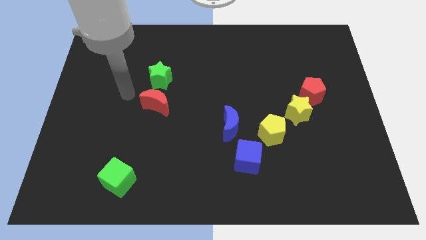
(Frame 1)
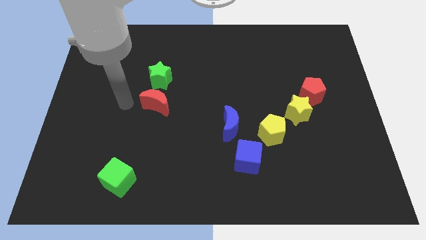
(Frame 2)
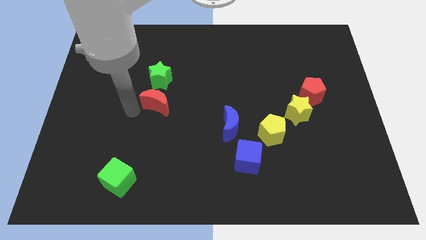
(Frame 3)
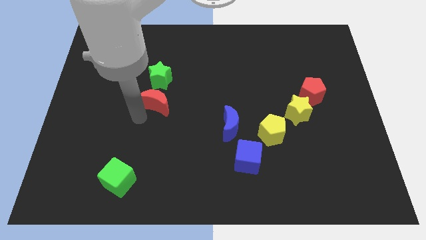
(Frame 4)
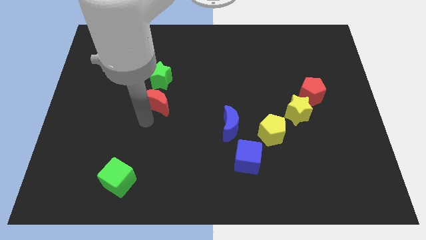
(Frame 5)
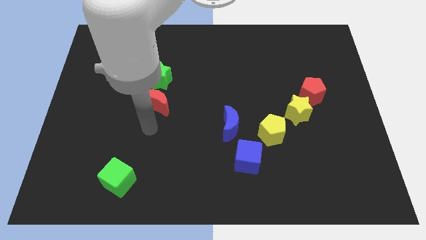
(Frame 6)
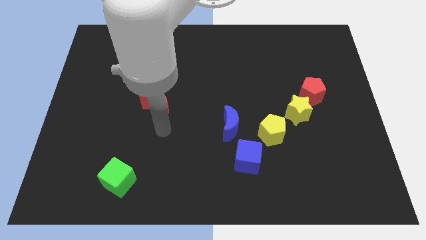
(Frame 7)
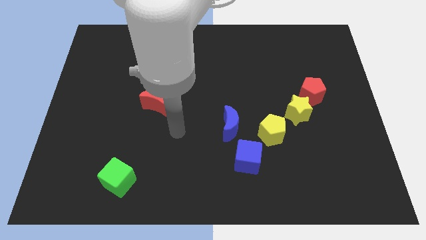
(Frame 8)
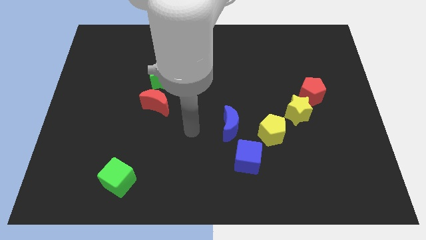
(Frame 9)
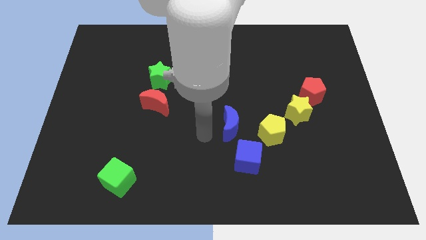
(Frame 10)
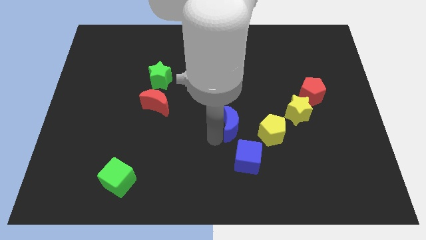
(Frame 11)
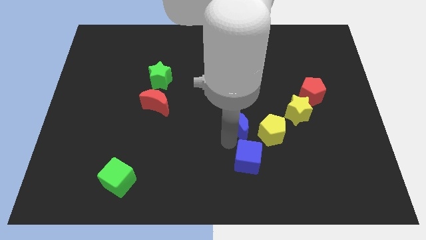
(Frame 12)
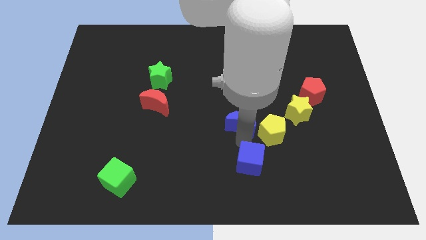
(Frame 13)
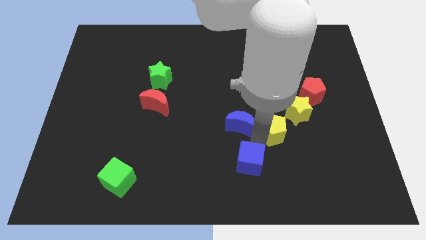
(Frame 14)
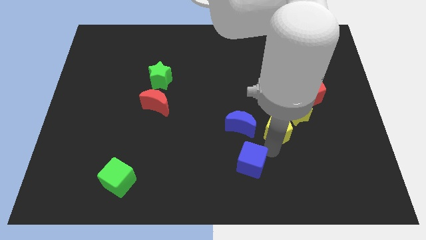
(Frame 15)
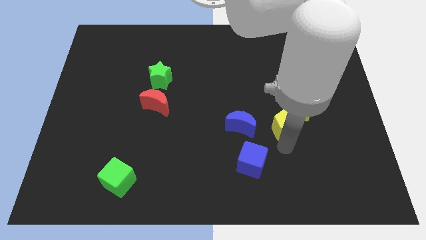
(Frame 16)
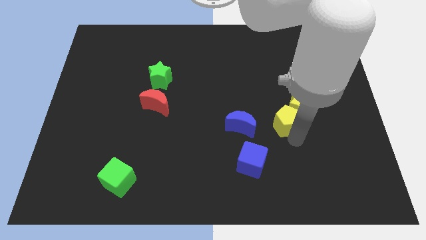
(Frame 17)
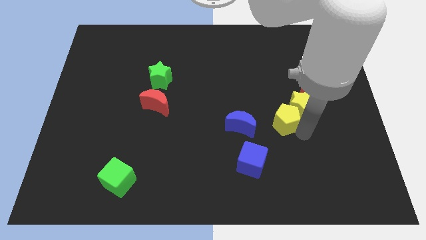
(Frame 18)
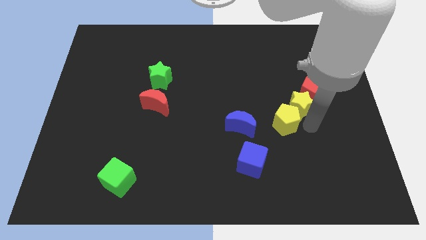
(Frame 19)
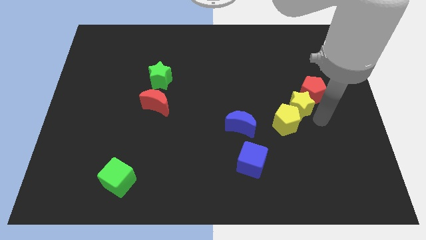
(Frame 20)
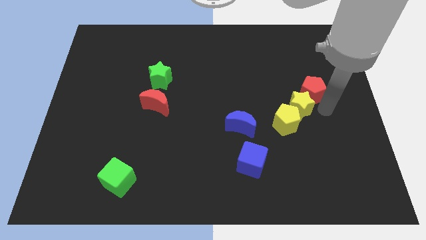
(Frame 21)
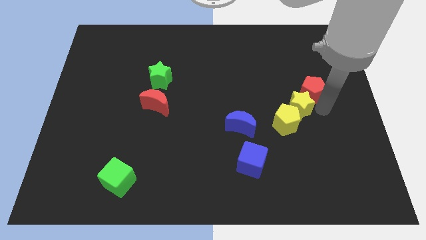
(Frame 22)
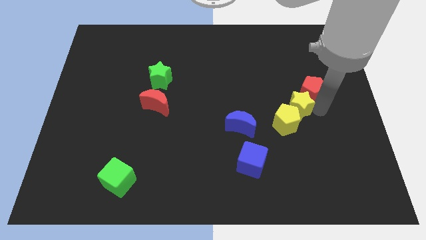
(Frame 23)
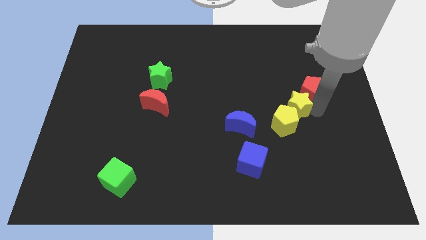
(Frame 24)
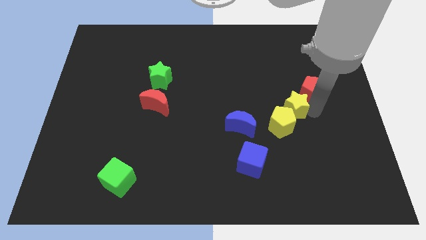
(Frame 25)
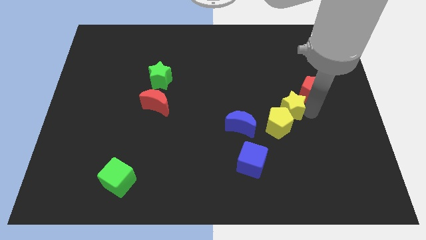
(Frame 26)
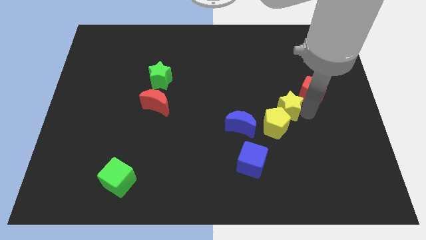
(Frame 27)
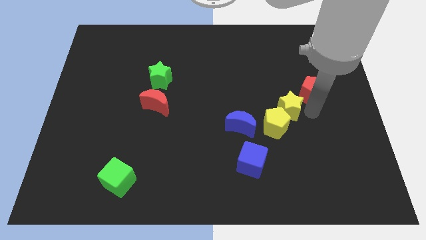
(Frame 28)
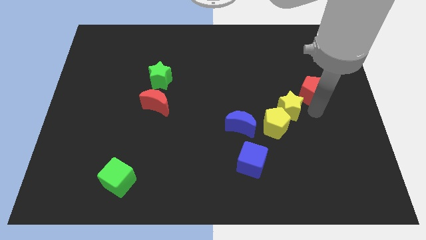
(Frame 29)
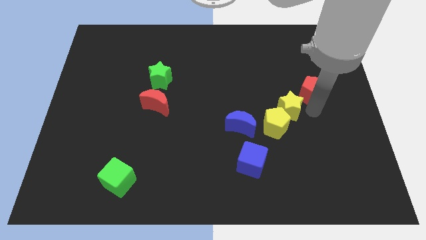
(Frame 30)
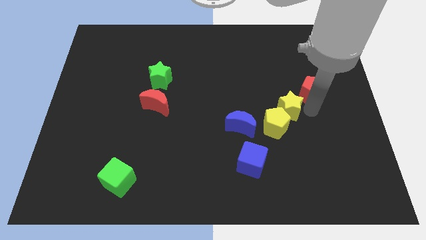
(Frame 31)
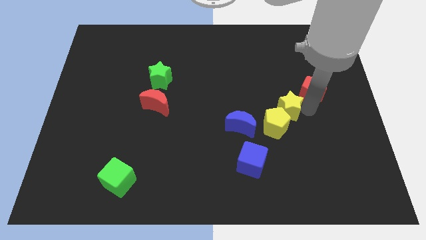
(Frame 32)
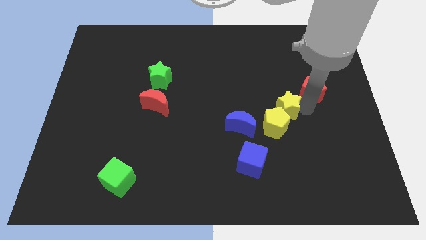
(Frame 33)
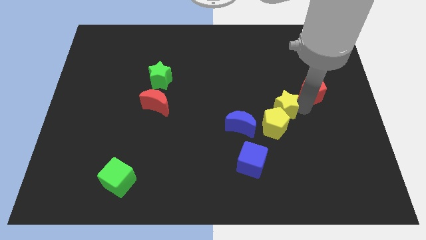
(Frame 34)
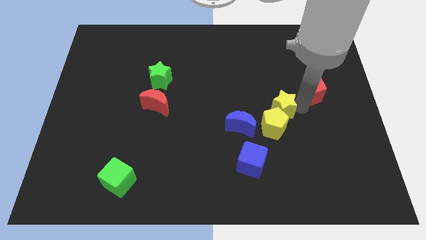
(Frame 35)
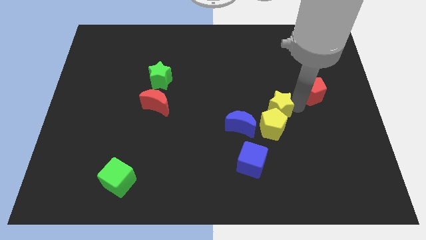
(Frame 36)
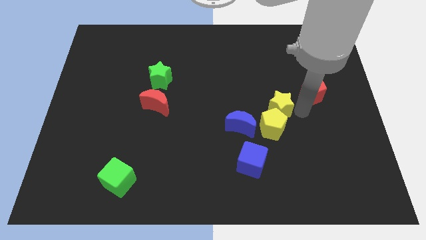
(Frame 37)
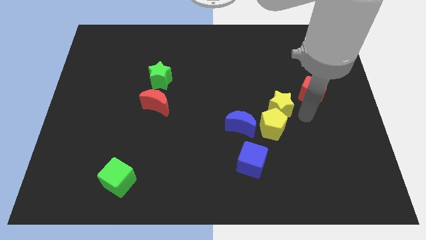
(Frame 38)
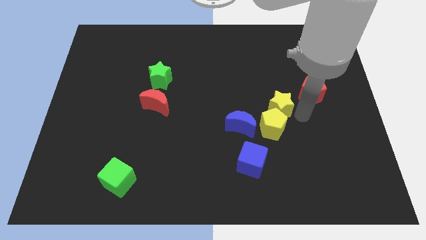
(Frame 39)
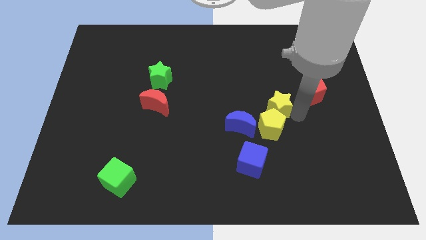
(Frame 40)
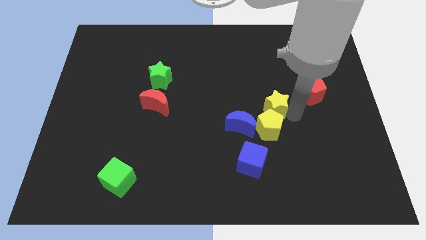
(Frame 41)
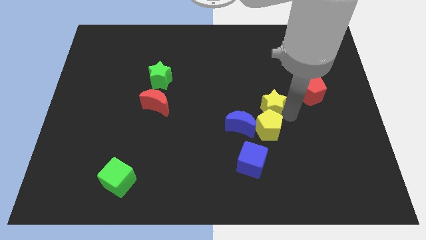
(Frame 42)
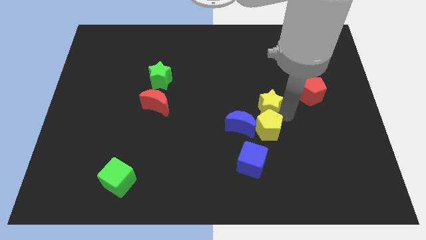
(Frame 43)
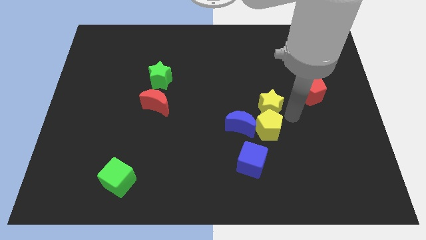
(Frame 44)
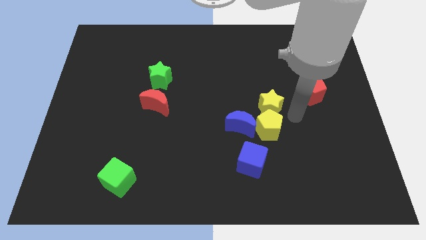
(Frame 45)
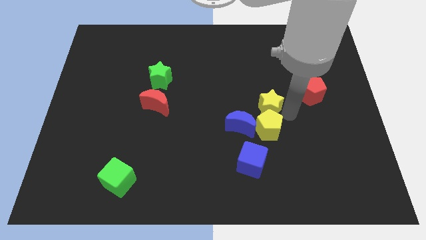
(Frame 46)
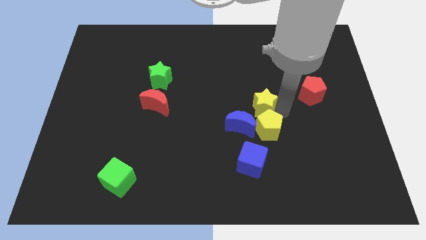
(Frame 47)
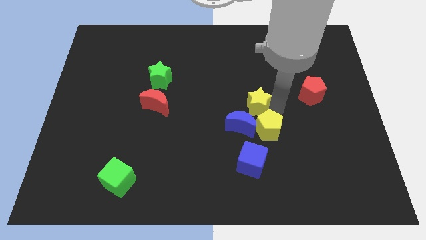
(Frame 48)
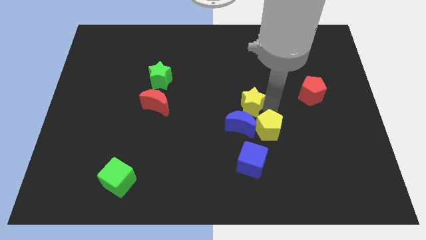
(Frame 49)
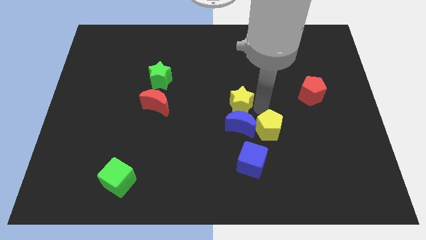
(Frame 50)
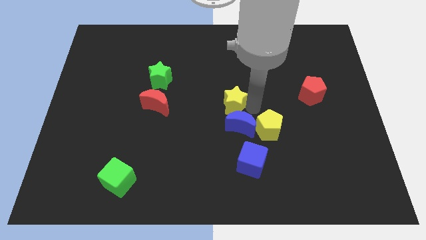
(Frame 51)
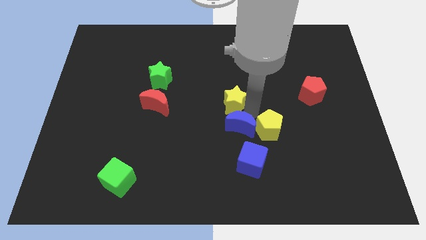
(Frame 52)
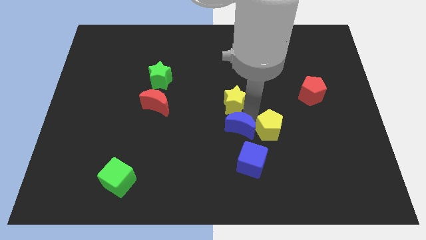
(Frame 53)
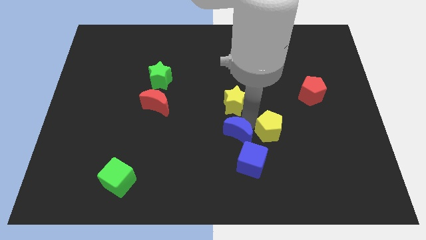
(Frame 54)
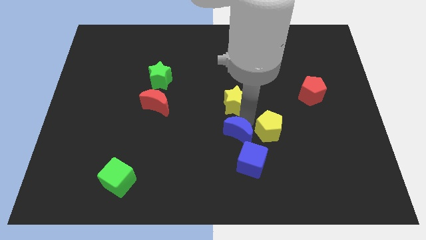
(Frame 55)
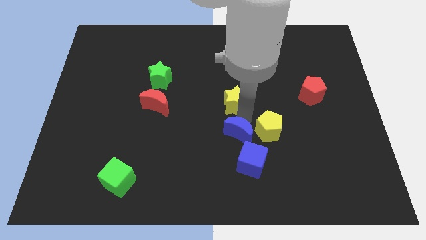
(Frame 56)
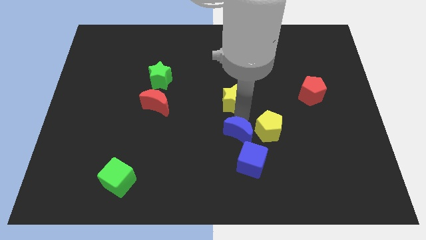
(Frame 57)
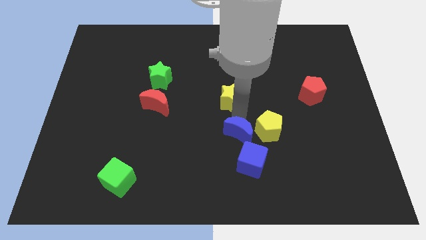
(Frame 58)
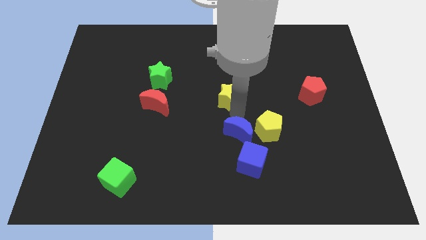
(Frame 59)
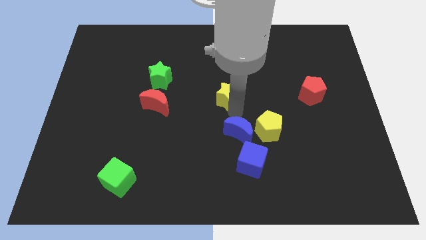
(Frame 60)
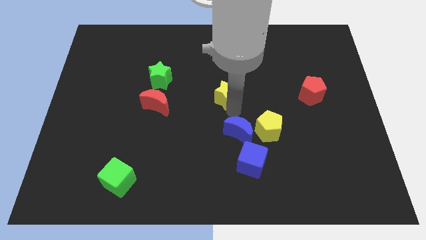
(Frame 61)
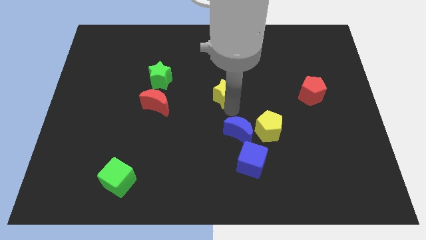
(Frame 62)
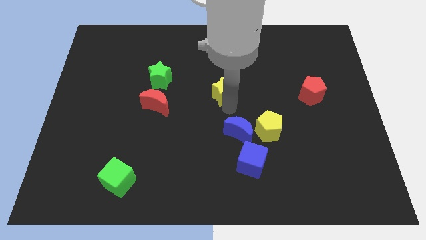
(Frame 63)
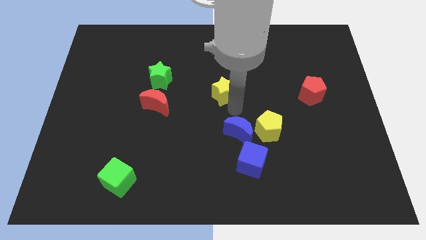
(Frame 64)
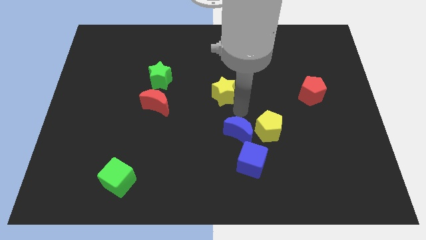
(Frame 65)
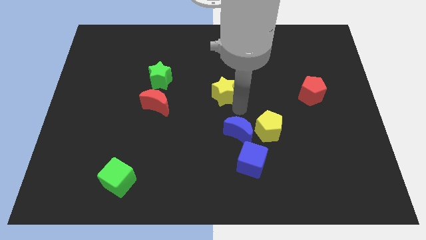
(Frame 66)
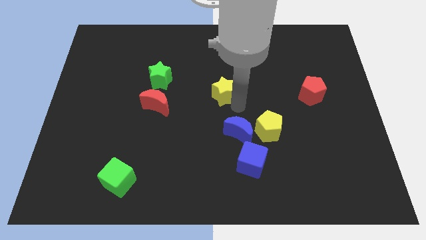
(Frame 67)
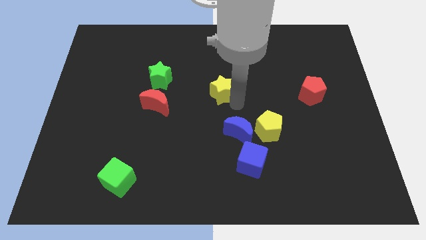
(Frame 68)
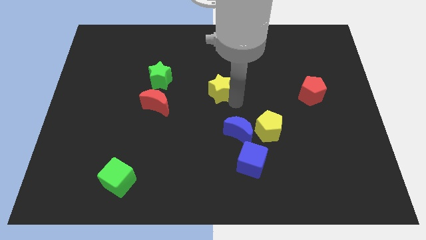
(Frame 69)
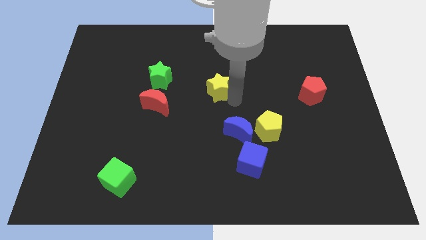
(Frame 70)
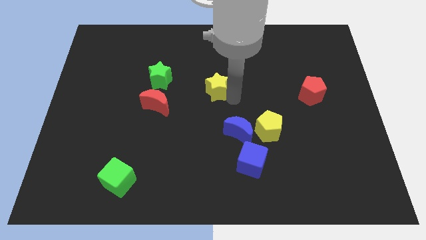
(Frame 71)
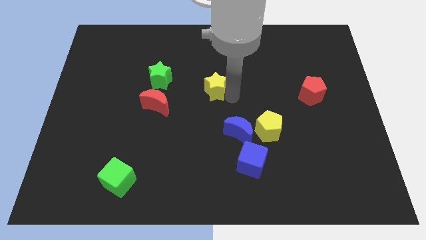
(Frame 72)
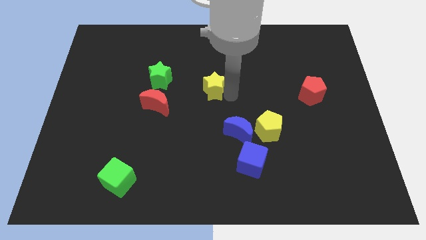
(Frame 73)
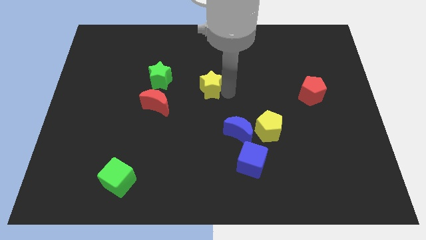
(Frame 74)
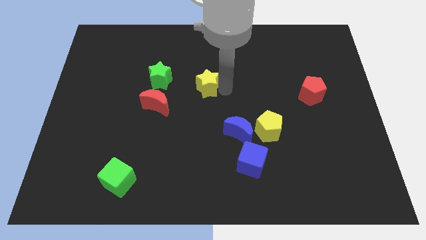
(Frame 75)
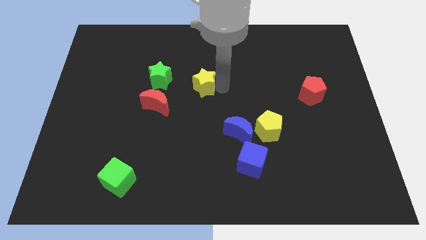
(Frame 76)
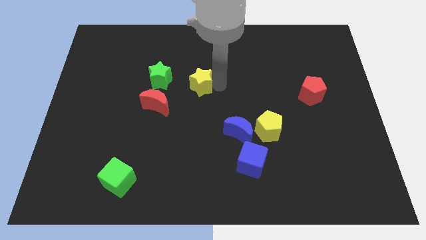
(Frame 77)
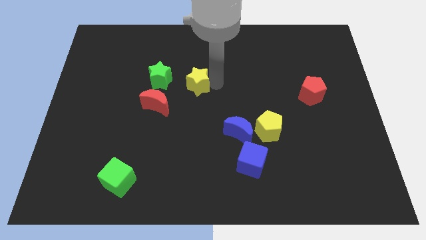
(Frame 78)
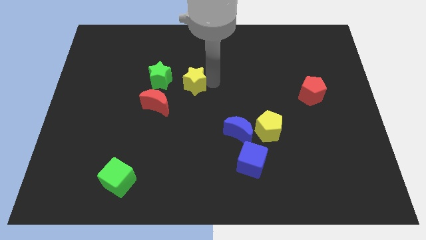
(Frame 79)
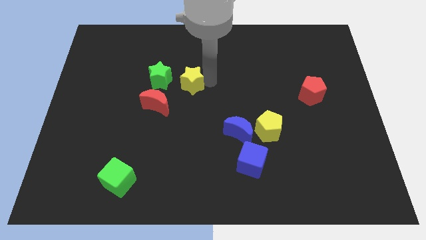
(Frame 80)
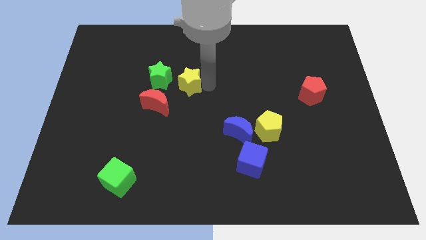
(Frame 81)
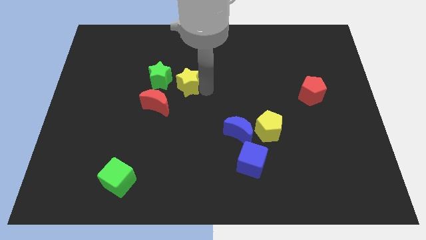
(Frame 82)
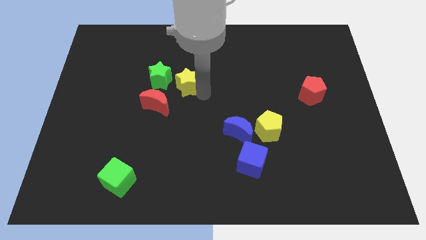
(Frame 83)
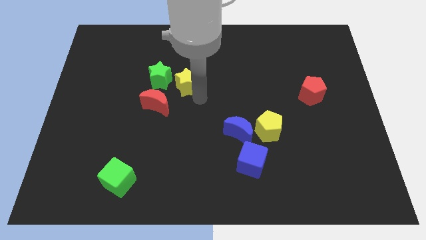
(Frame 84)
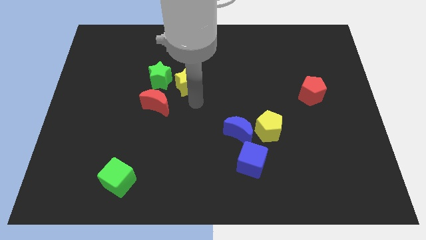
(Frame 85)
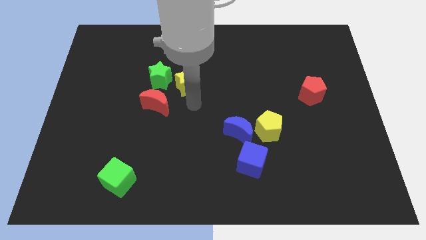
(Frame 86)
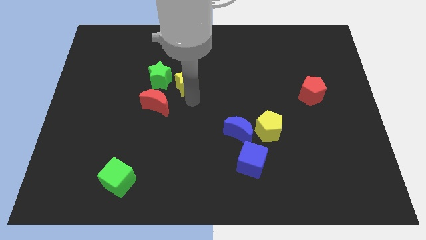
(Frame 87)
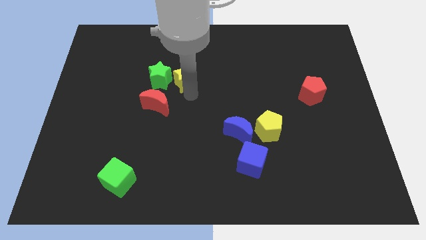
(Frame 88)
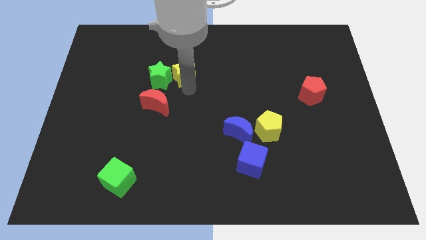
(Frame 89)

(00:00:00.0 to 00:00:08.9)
slide the yellow star to the top right side of the green star
